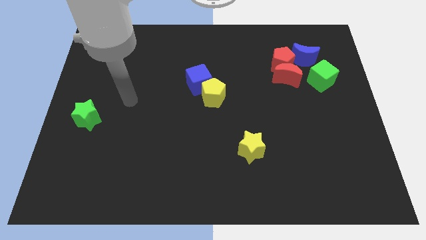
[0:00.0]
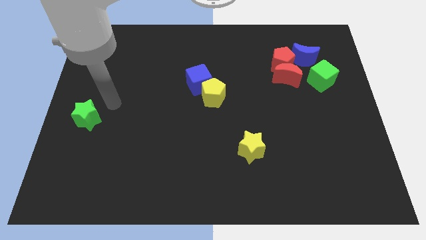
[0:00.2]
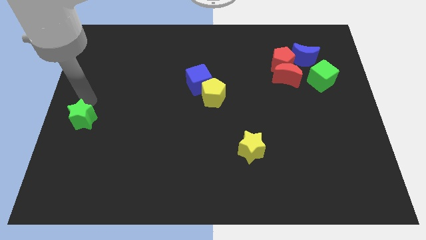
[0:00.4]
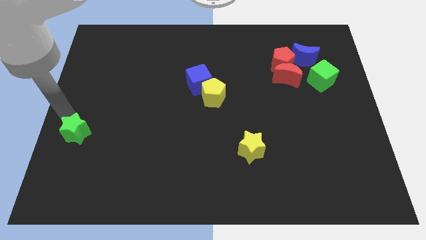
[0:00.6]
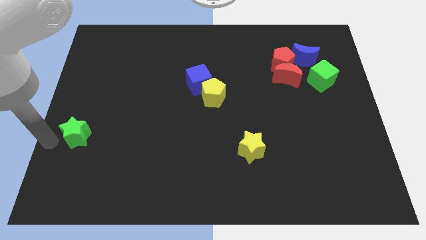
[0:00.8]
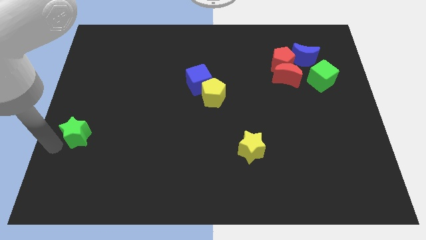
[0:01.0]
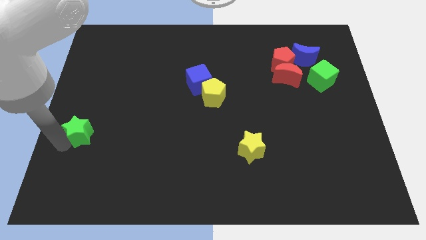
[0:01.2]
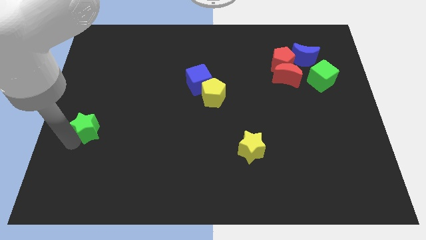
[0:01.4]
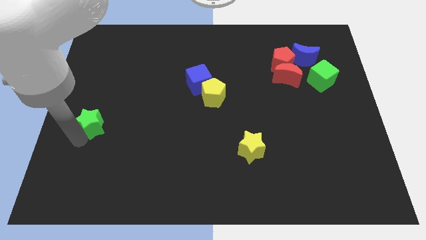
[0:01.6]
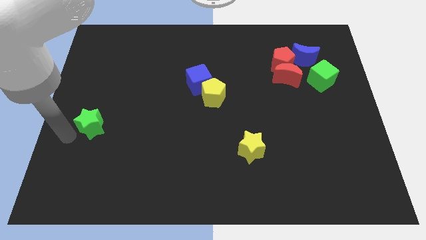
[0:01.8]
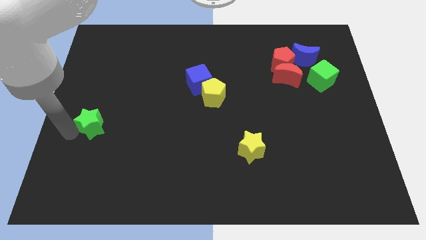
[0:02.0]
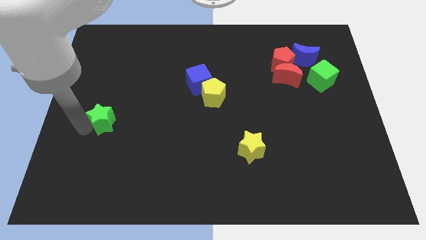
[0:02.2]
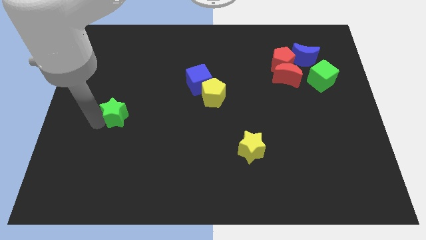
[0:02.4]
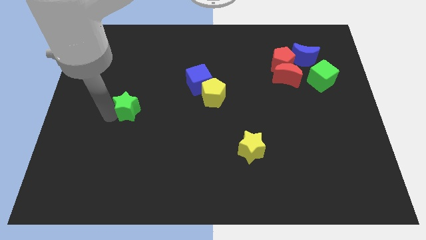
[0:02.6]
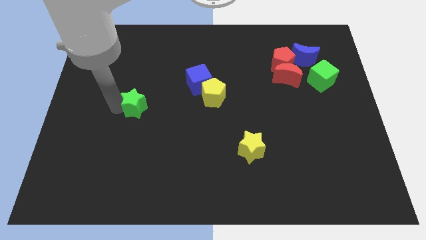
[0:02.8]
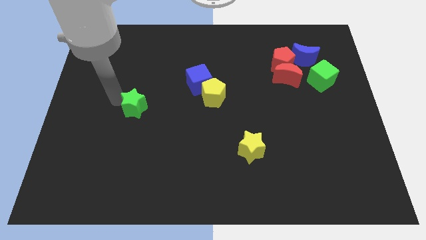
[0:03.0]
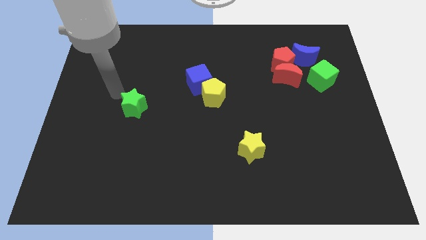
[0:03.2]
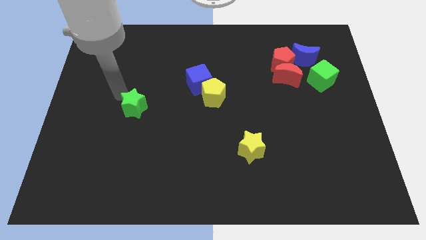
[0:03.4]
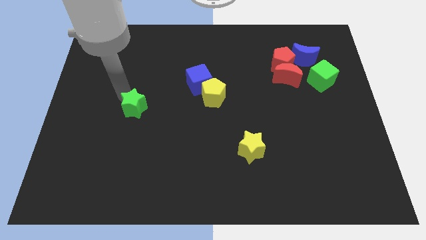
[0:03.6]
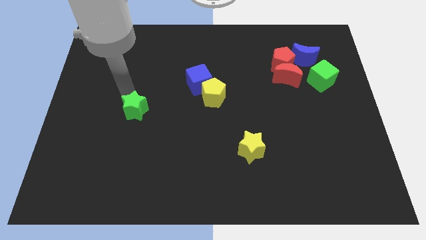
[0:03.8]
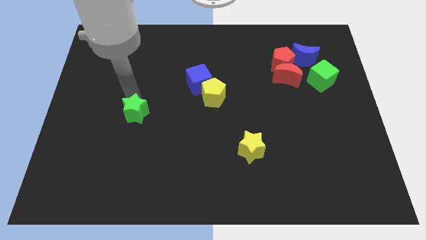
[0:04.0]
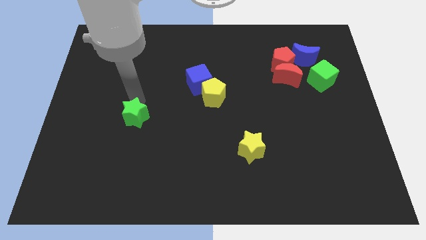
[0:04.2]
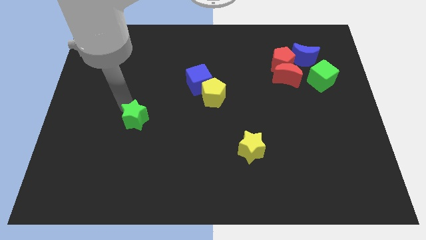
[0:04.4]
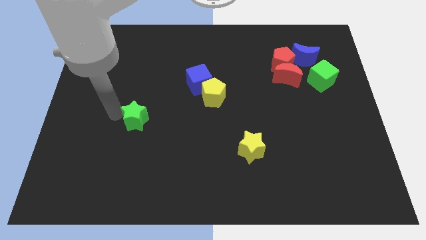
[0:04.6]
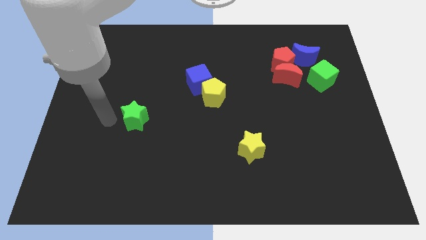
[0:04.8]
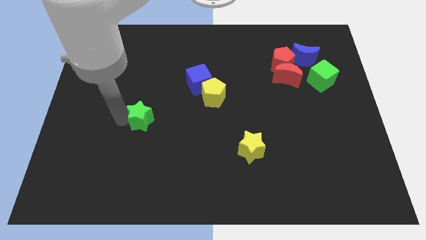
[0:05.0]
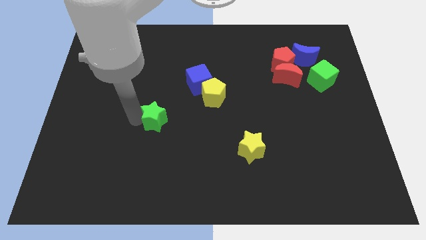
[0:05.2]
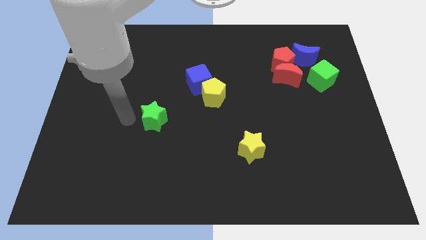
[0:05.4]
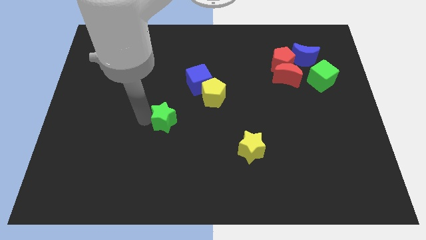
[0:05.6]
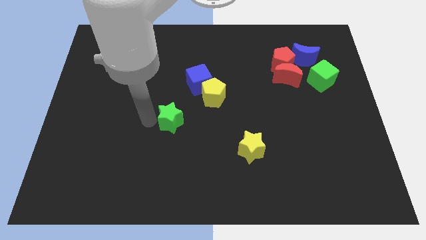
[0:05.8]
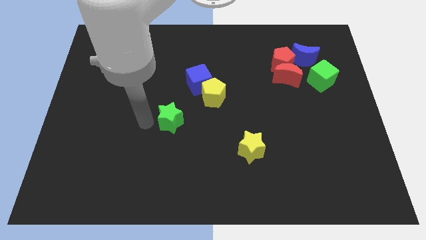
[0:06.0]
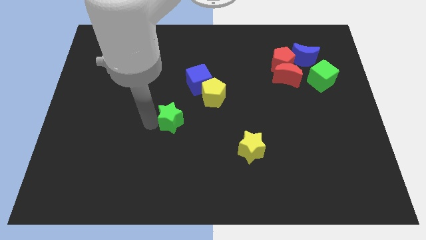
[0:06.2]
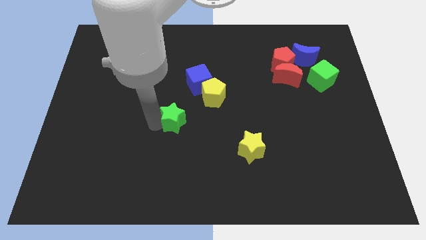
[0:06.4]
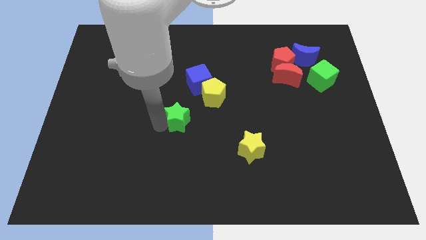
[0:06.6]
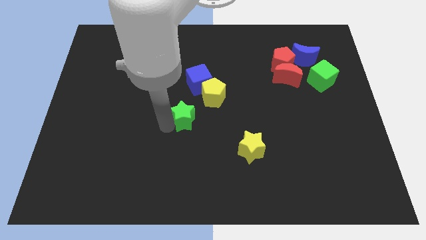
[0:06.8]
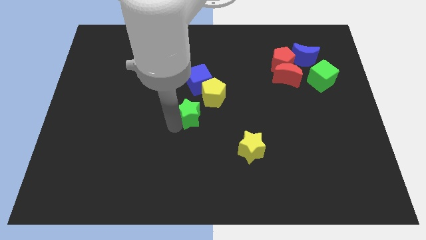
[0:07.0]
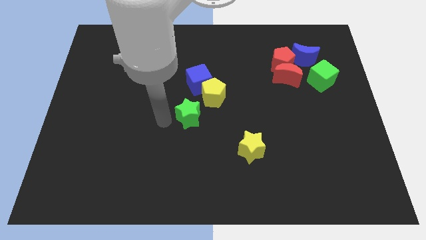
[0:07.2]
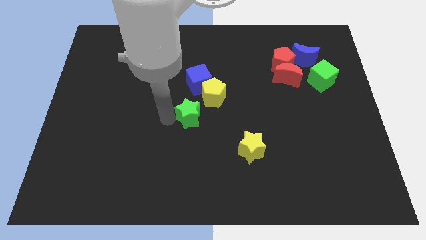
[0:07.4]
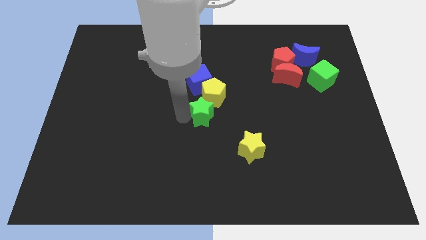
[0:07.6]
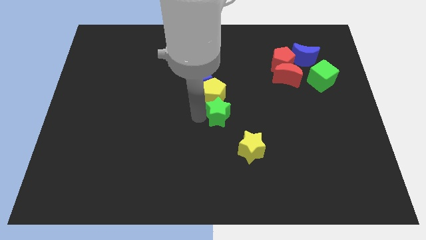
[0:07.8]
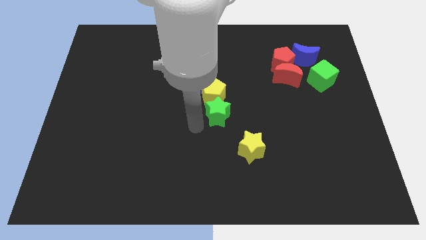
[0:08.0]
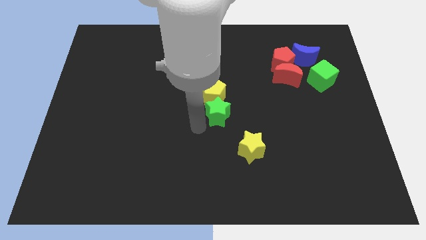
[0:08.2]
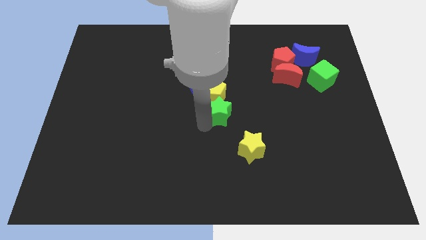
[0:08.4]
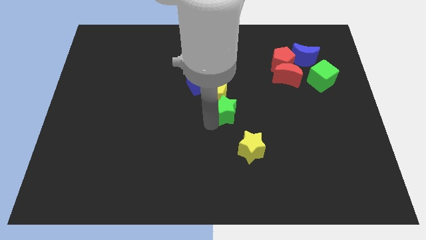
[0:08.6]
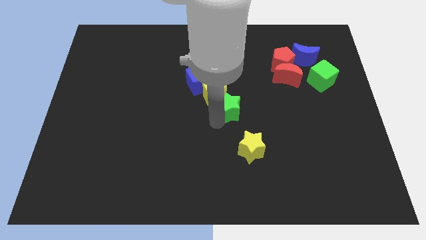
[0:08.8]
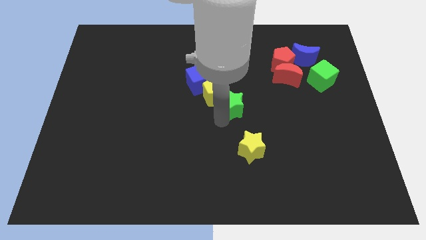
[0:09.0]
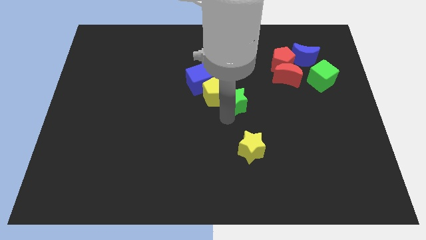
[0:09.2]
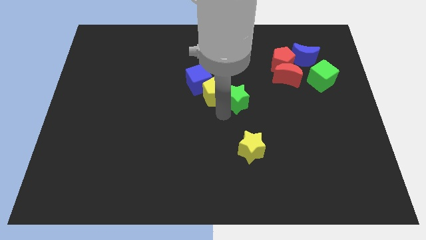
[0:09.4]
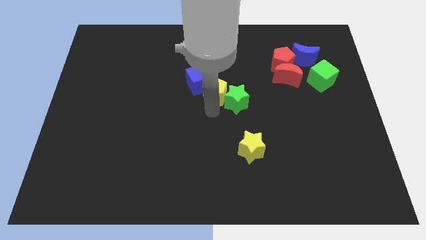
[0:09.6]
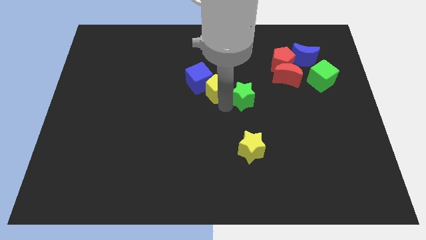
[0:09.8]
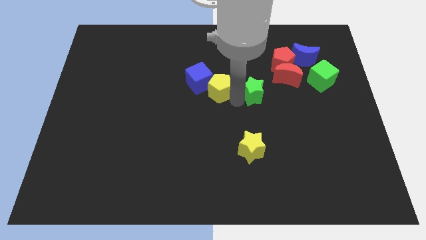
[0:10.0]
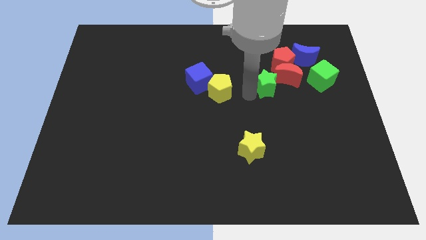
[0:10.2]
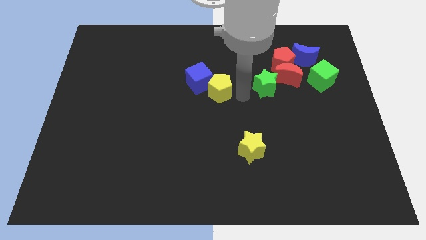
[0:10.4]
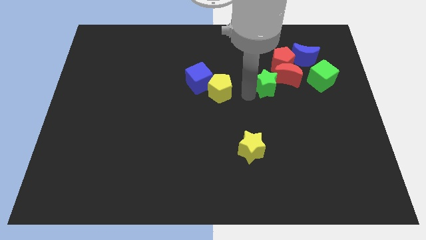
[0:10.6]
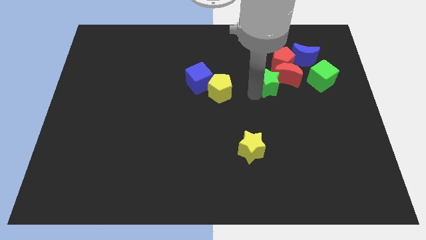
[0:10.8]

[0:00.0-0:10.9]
slide the green star towards the red moon

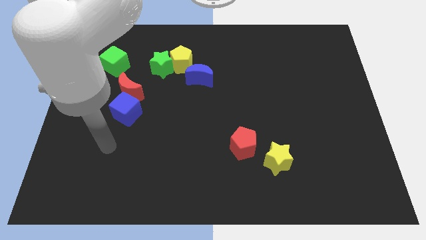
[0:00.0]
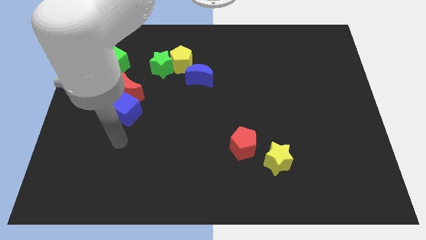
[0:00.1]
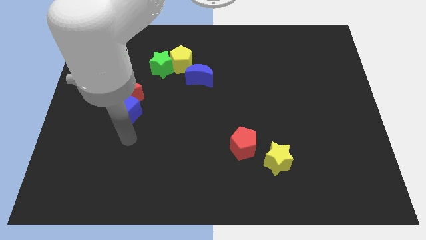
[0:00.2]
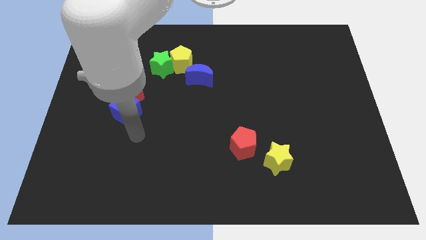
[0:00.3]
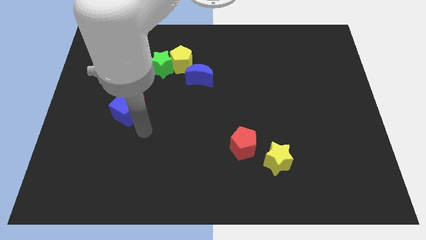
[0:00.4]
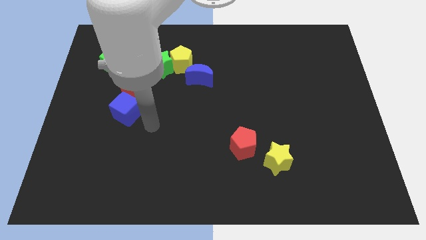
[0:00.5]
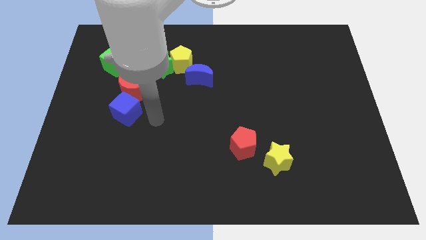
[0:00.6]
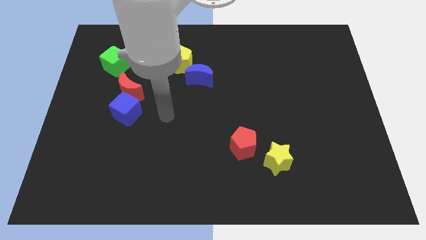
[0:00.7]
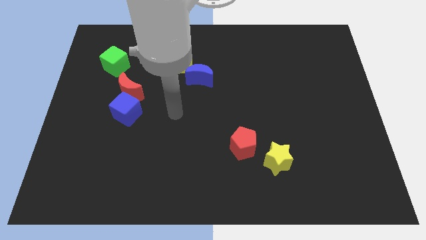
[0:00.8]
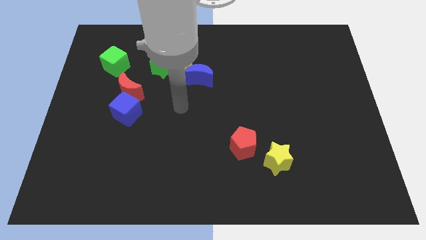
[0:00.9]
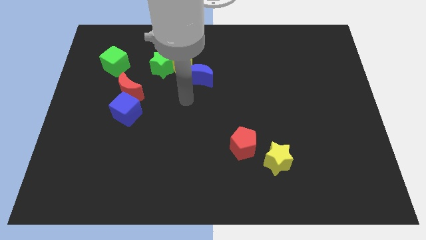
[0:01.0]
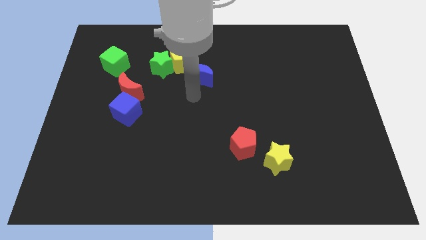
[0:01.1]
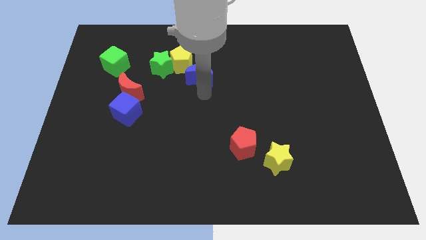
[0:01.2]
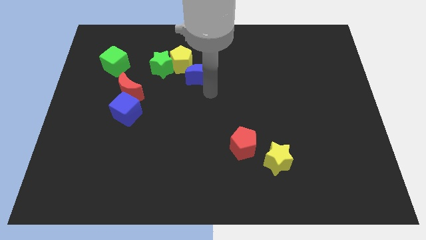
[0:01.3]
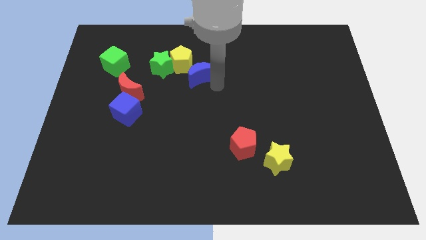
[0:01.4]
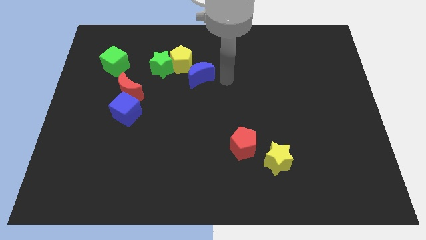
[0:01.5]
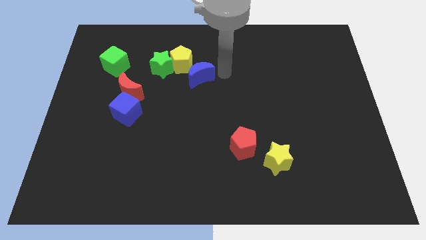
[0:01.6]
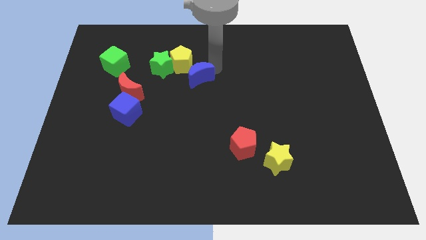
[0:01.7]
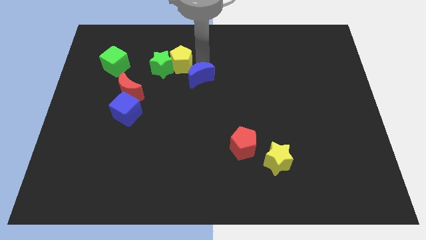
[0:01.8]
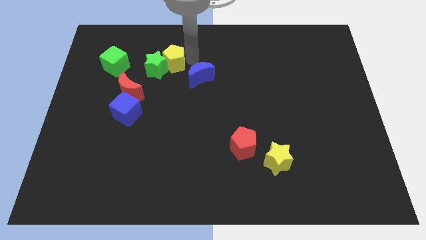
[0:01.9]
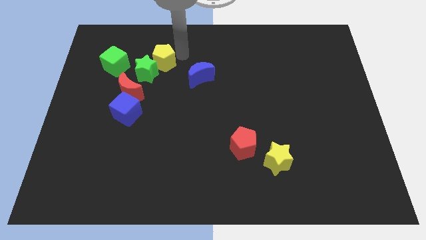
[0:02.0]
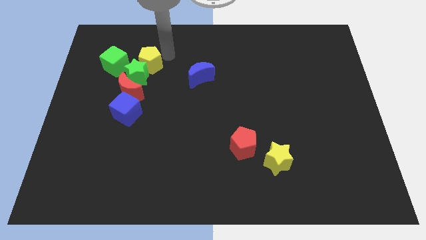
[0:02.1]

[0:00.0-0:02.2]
move the green star next to the red moon

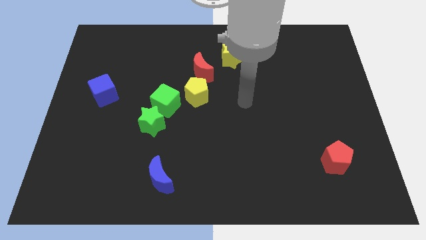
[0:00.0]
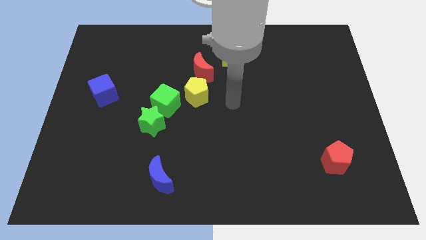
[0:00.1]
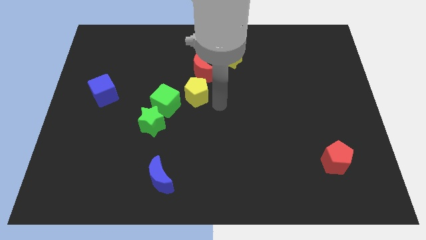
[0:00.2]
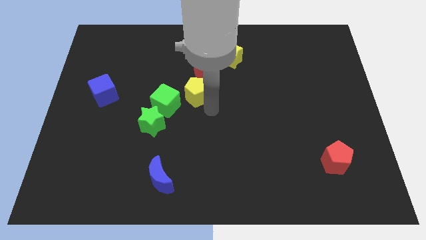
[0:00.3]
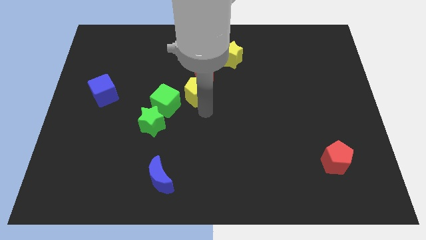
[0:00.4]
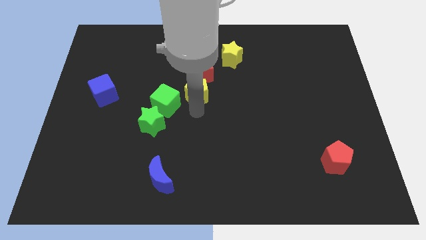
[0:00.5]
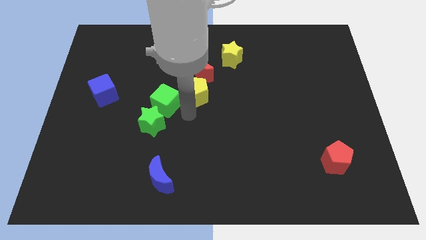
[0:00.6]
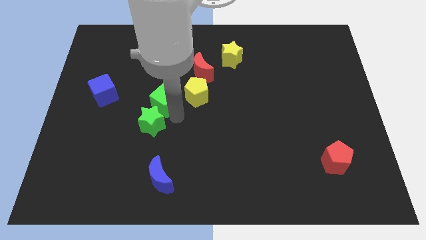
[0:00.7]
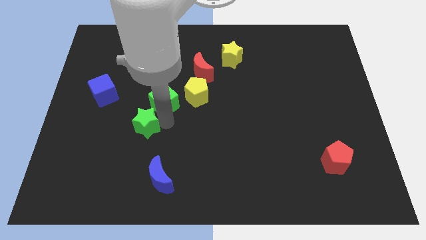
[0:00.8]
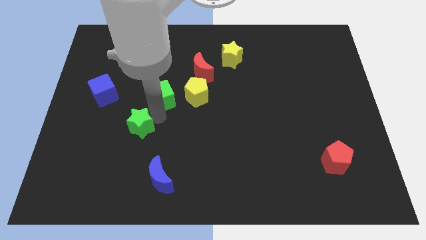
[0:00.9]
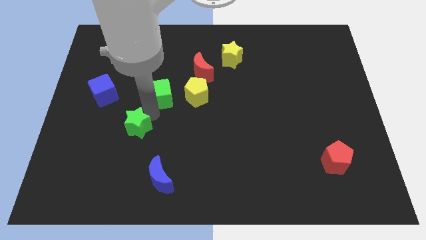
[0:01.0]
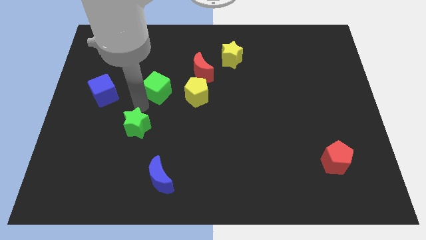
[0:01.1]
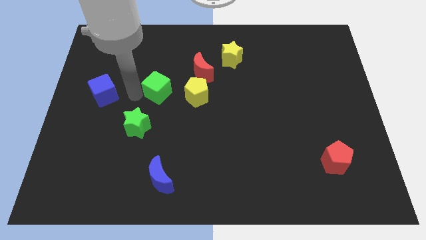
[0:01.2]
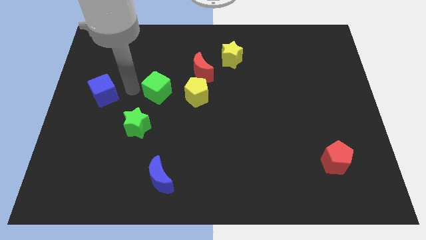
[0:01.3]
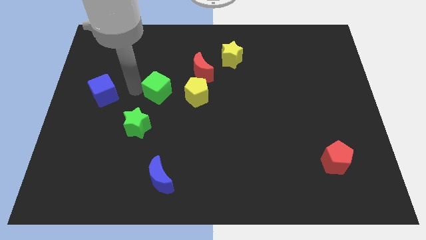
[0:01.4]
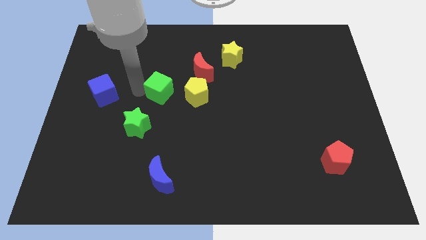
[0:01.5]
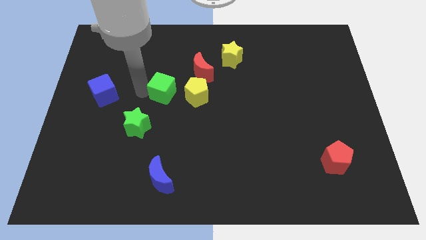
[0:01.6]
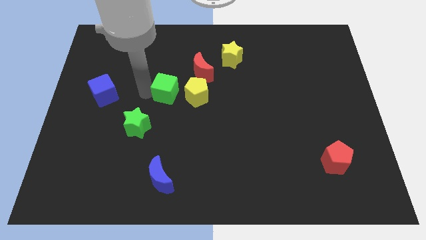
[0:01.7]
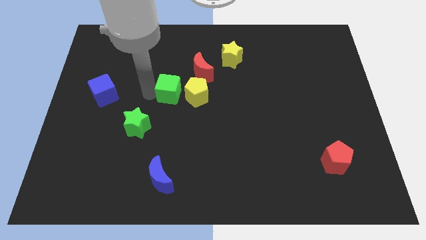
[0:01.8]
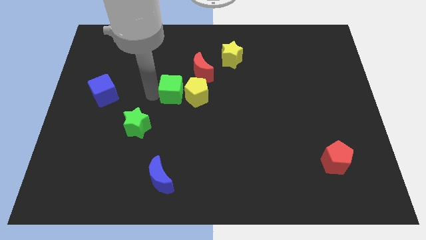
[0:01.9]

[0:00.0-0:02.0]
push the green cube to the yellow pentagon
